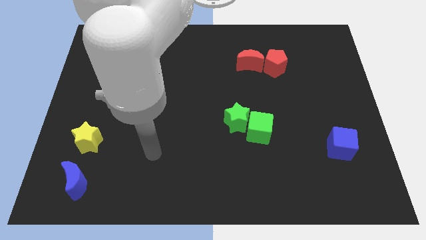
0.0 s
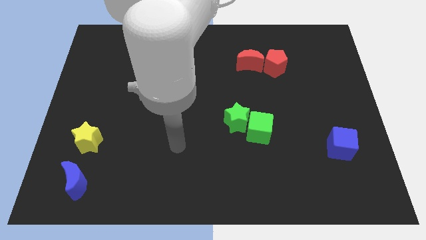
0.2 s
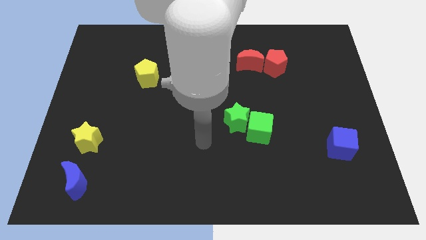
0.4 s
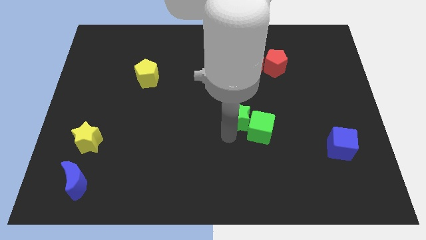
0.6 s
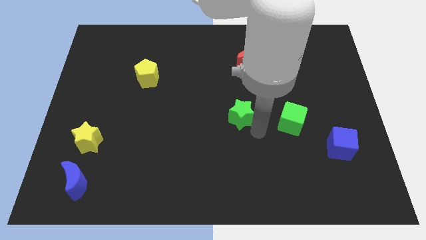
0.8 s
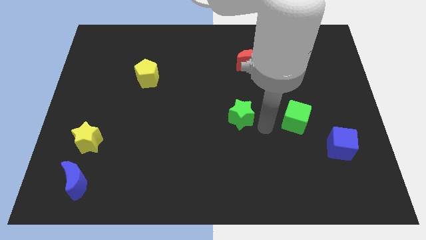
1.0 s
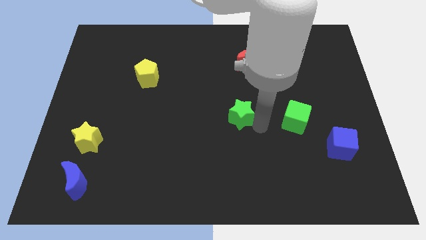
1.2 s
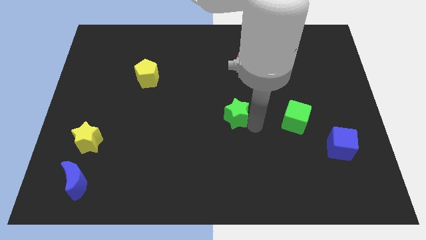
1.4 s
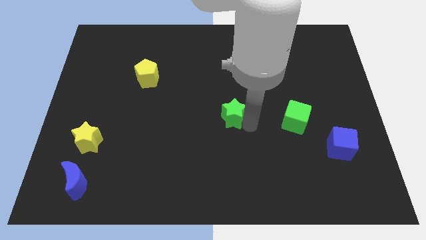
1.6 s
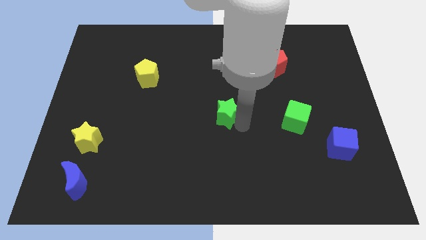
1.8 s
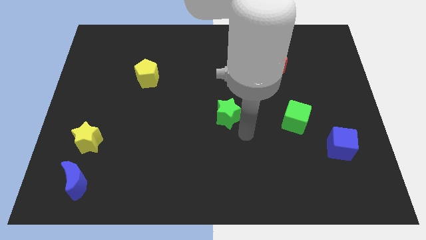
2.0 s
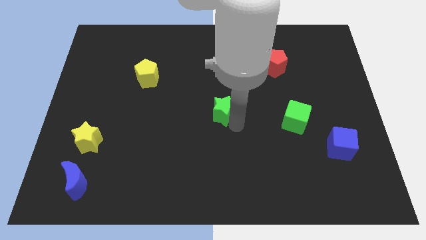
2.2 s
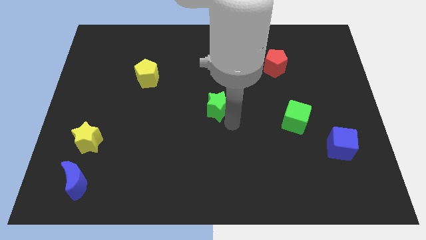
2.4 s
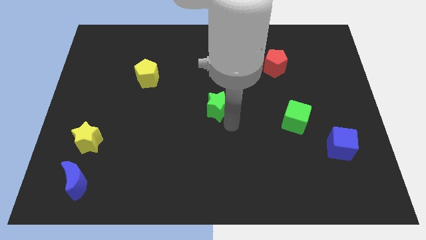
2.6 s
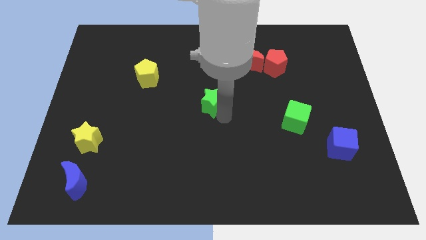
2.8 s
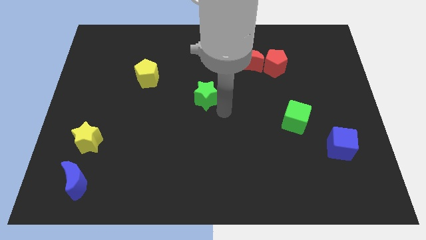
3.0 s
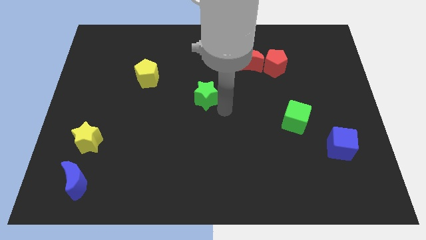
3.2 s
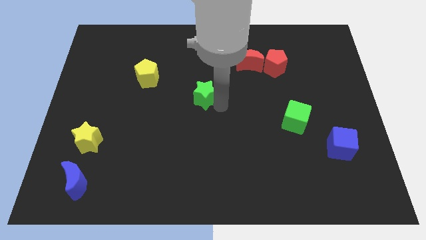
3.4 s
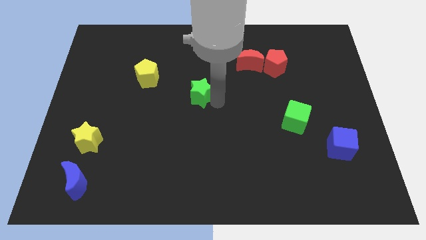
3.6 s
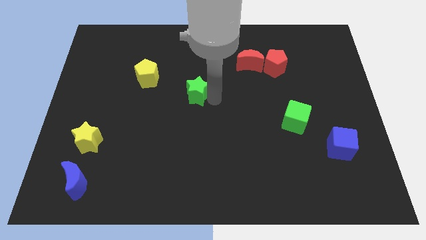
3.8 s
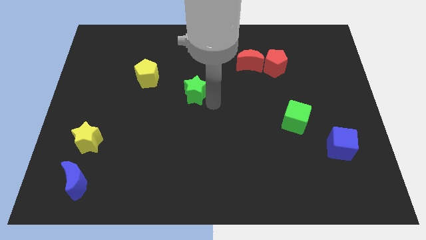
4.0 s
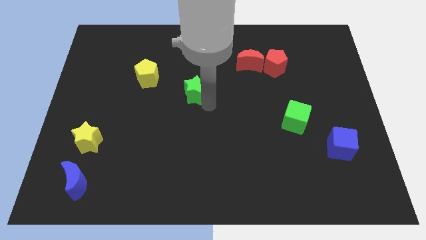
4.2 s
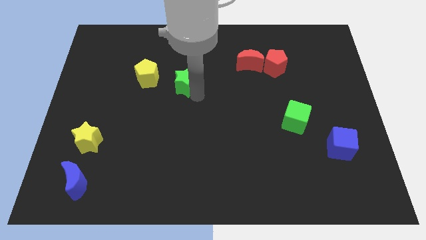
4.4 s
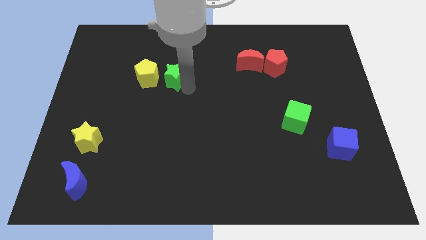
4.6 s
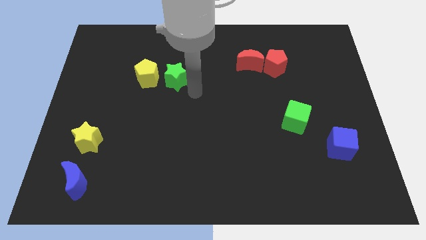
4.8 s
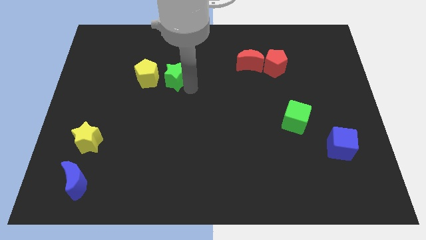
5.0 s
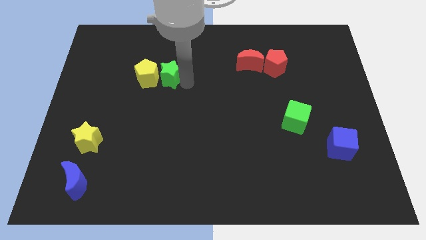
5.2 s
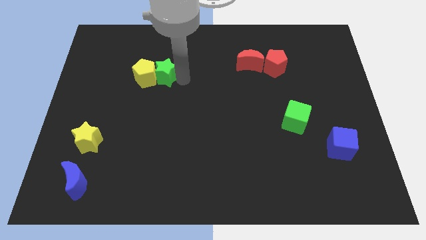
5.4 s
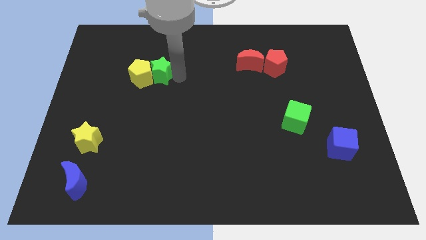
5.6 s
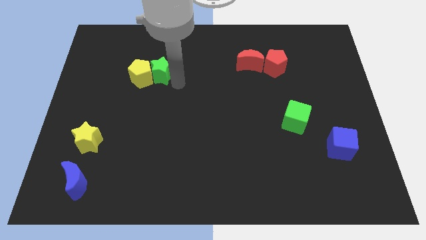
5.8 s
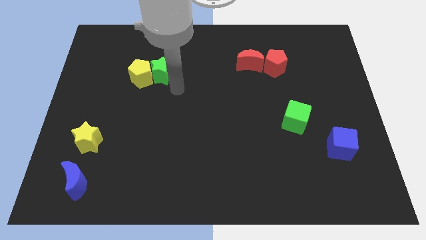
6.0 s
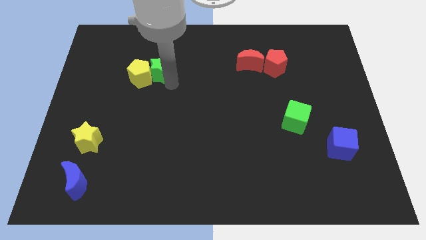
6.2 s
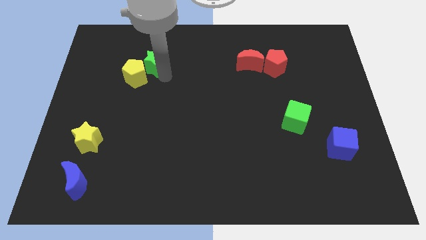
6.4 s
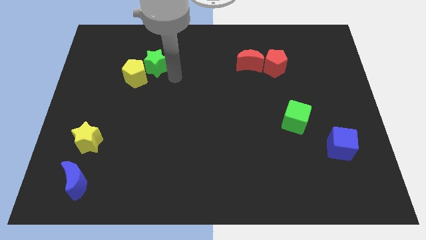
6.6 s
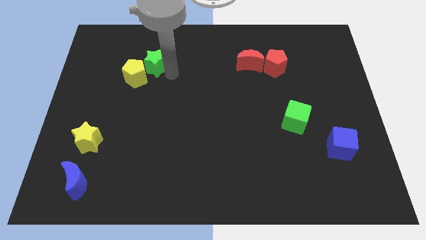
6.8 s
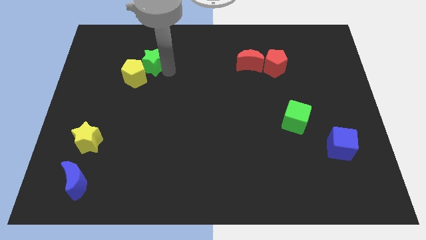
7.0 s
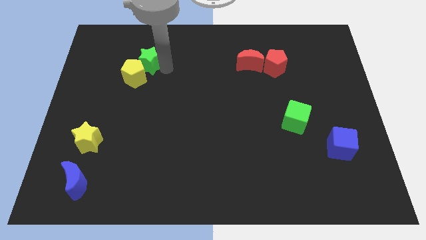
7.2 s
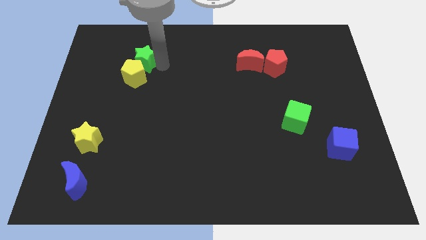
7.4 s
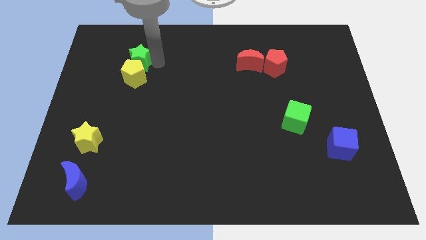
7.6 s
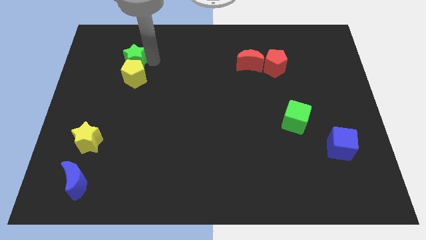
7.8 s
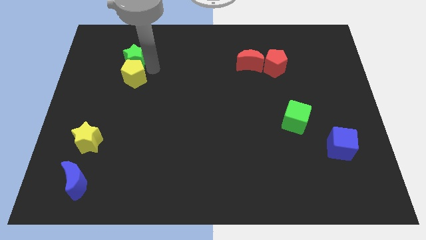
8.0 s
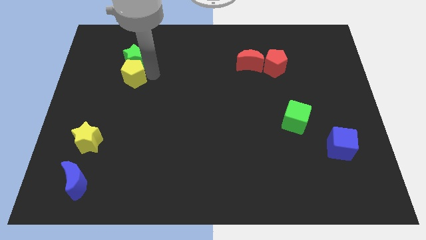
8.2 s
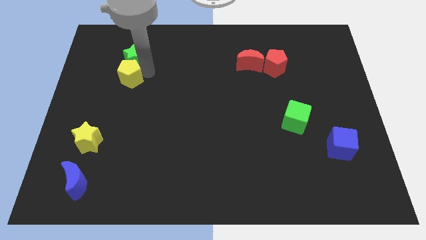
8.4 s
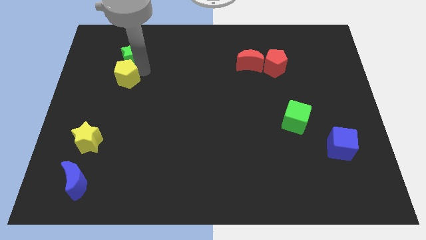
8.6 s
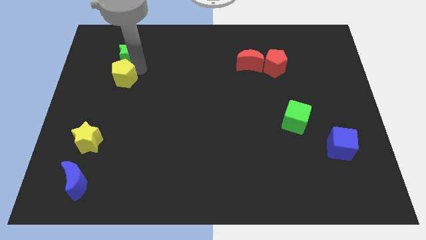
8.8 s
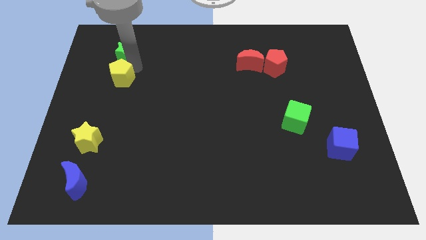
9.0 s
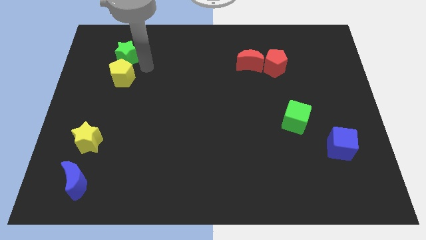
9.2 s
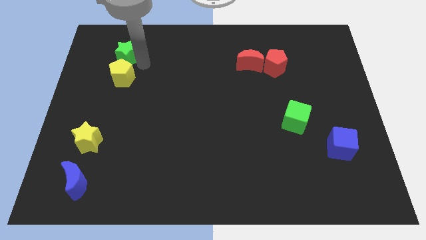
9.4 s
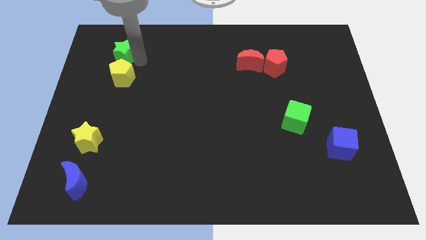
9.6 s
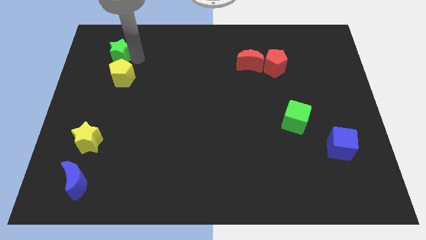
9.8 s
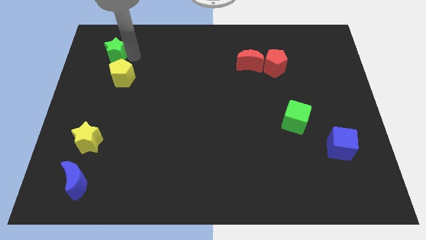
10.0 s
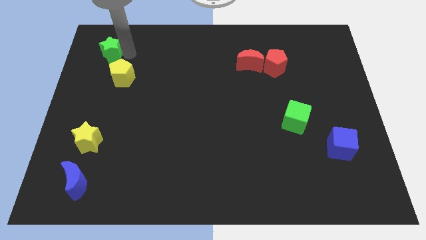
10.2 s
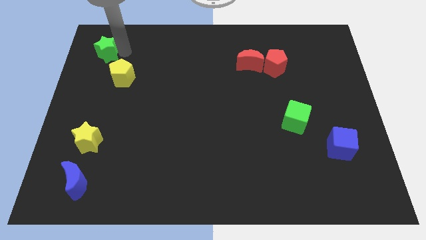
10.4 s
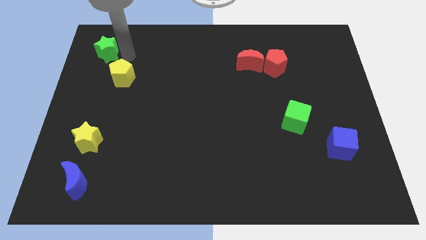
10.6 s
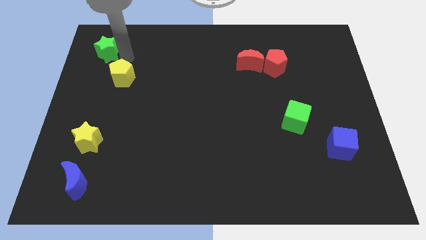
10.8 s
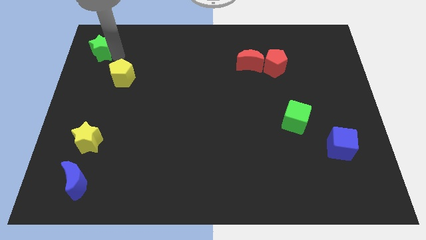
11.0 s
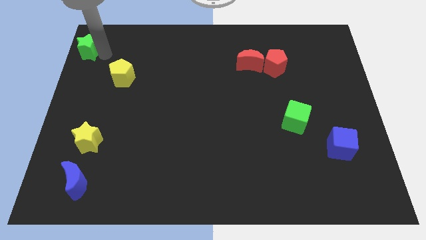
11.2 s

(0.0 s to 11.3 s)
slide the green star to the upper left corner

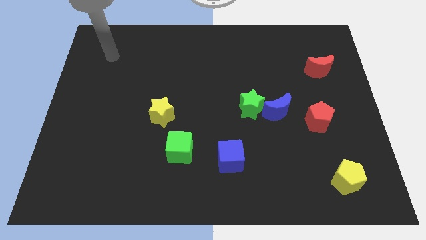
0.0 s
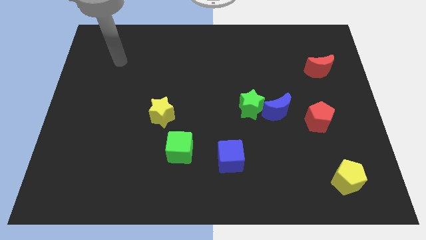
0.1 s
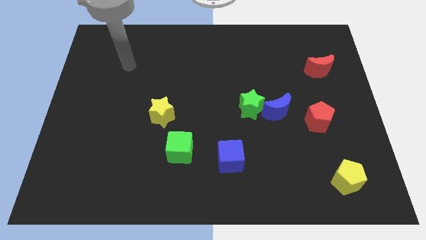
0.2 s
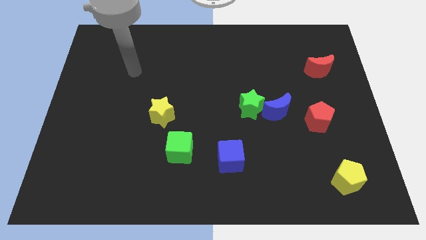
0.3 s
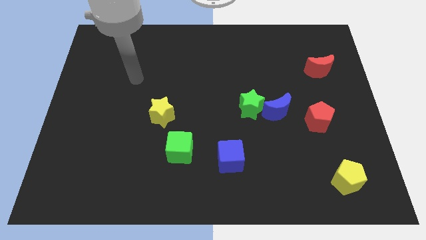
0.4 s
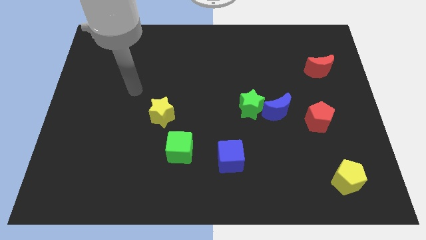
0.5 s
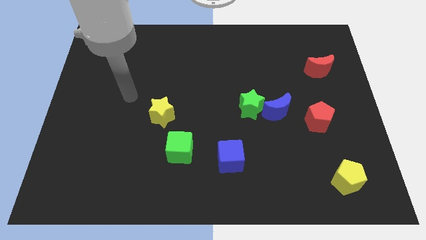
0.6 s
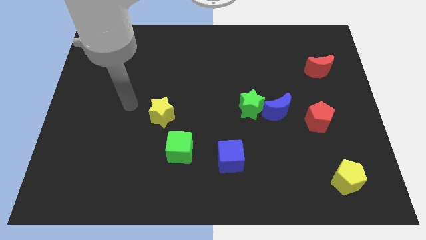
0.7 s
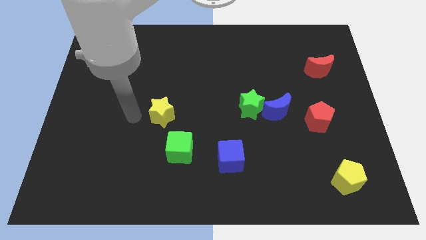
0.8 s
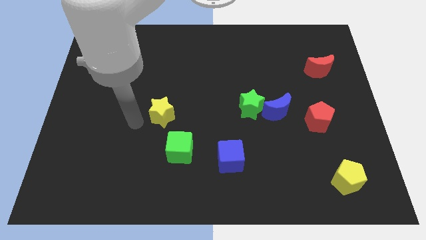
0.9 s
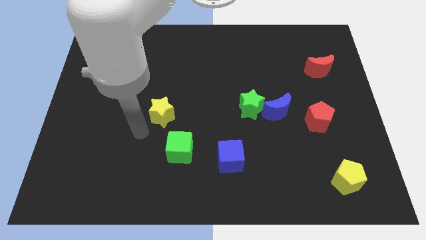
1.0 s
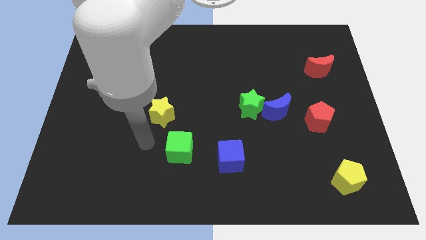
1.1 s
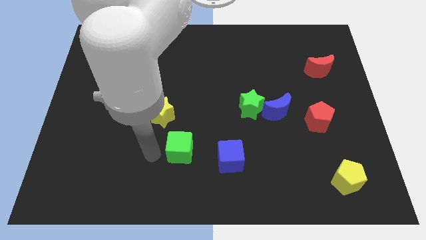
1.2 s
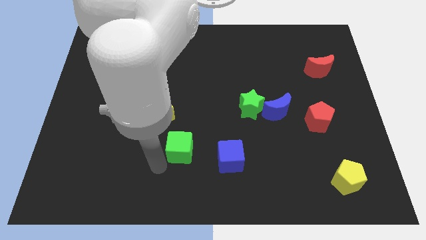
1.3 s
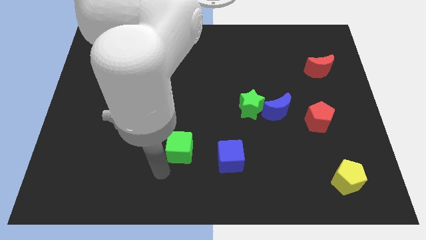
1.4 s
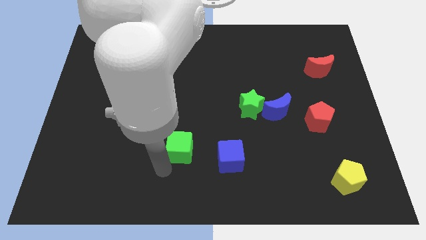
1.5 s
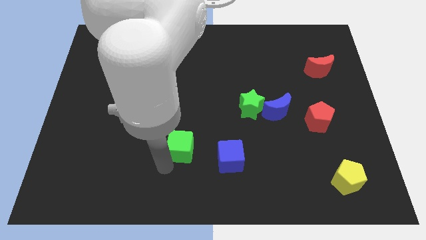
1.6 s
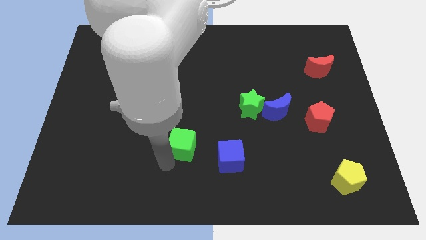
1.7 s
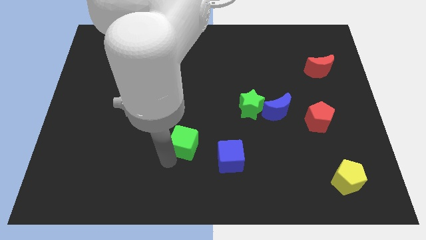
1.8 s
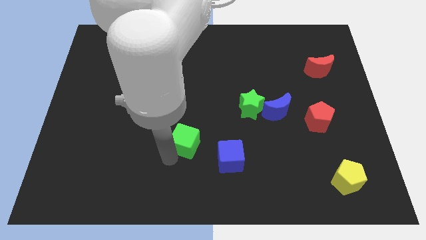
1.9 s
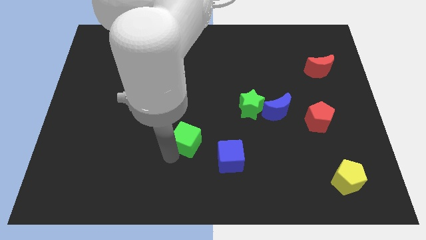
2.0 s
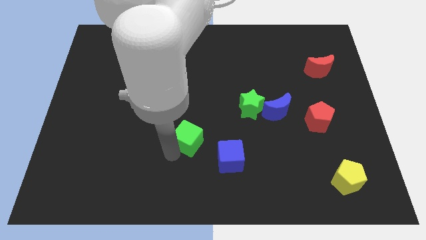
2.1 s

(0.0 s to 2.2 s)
put the green cube to the center of the board
